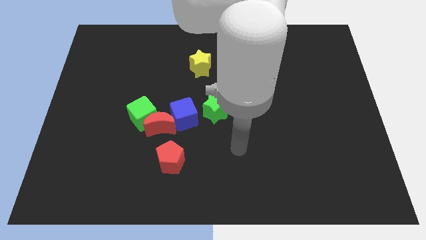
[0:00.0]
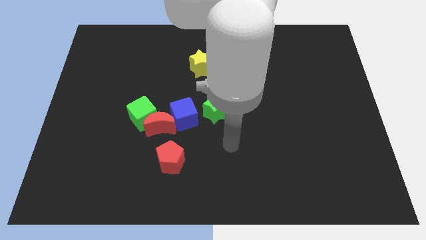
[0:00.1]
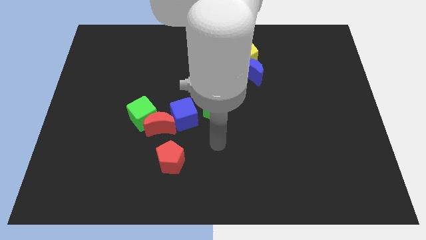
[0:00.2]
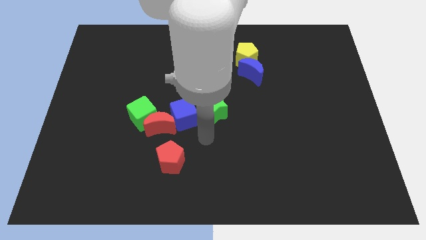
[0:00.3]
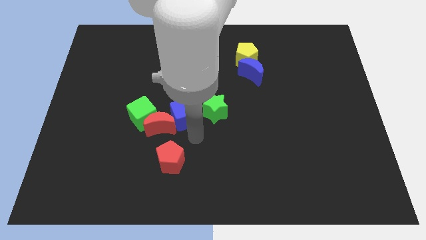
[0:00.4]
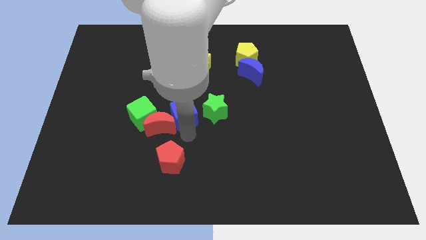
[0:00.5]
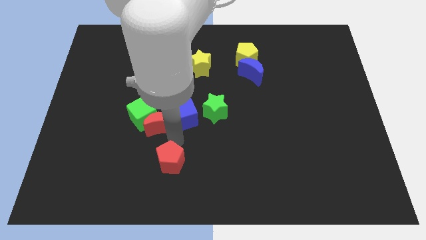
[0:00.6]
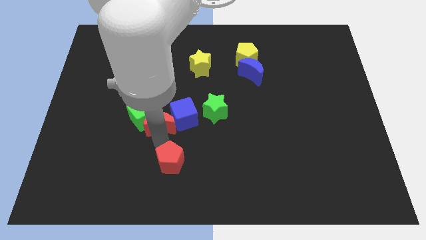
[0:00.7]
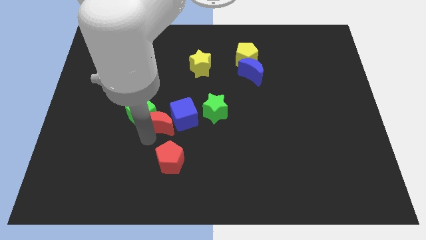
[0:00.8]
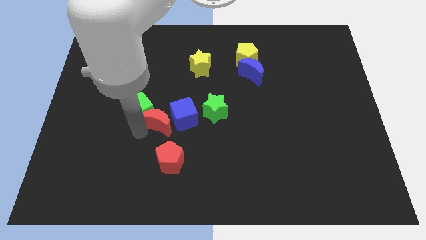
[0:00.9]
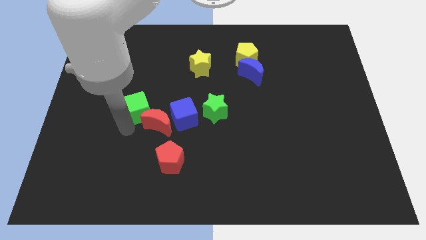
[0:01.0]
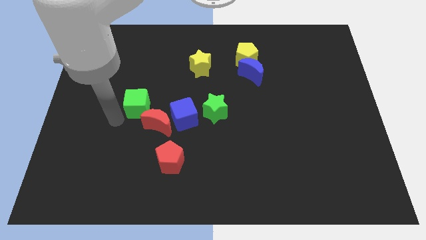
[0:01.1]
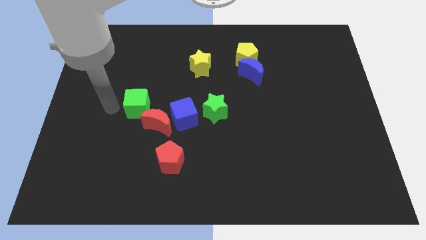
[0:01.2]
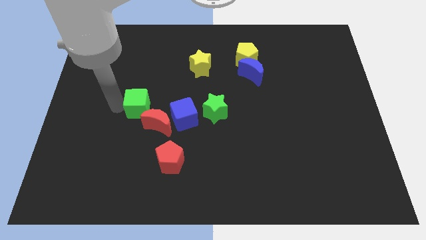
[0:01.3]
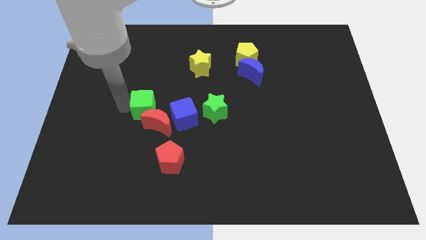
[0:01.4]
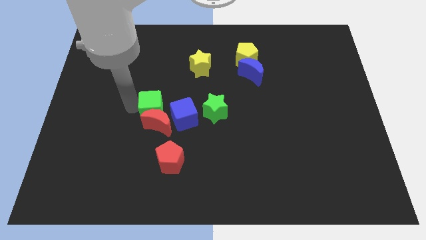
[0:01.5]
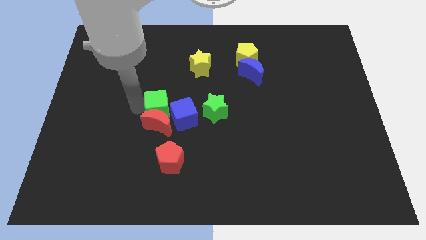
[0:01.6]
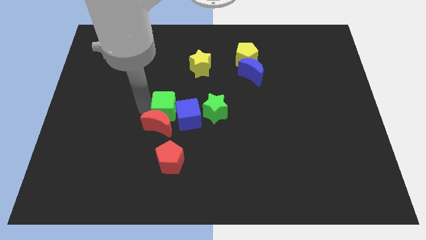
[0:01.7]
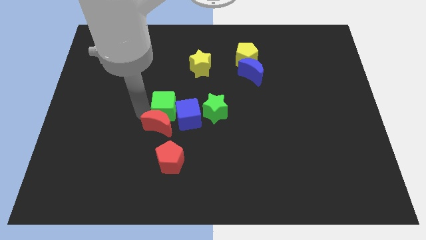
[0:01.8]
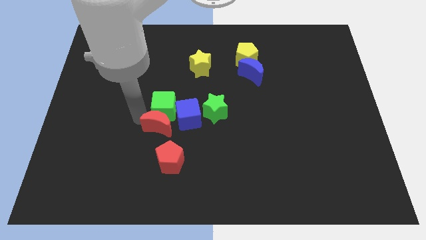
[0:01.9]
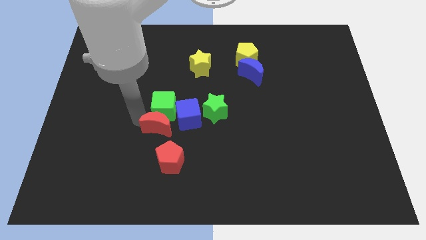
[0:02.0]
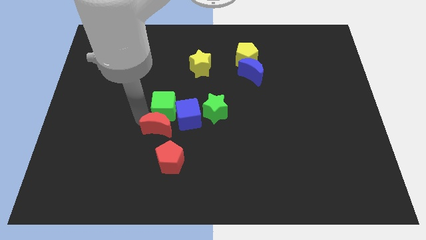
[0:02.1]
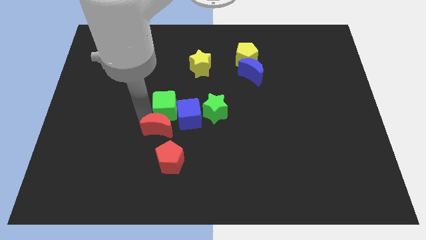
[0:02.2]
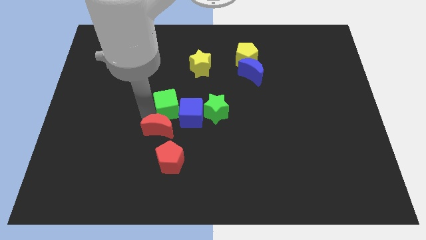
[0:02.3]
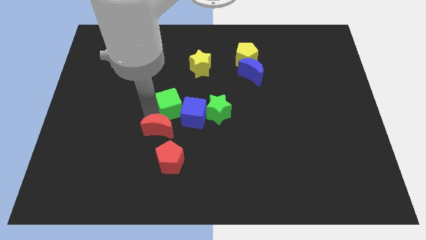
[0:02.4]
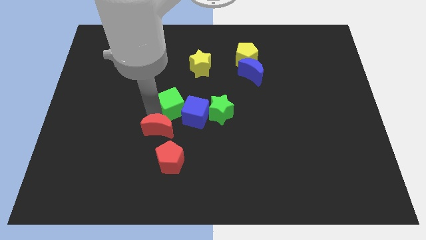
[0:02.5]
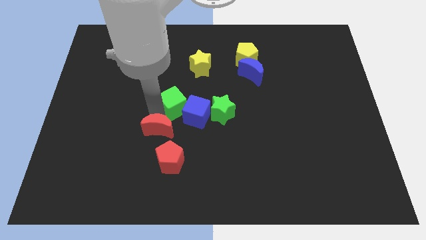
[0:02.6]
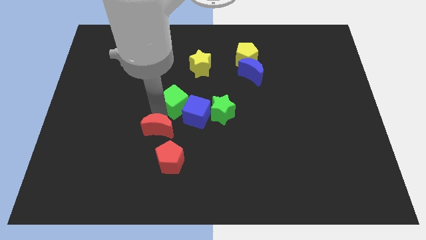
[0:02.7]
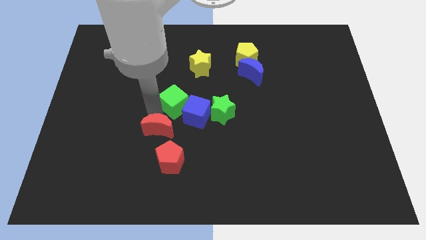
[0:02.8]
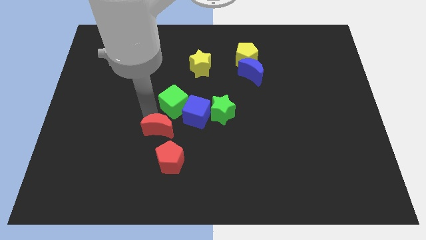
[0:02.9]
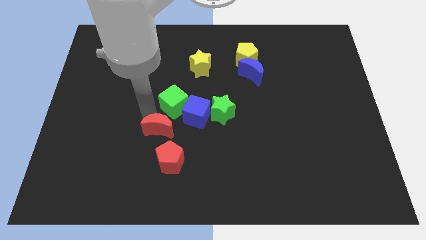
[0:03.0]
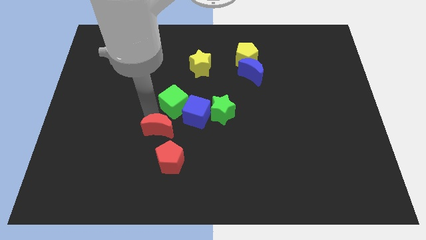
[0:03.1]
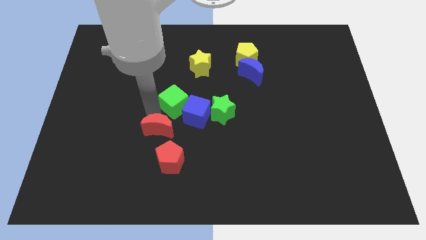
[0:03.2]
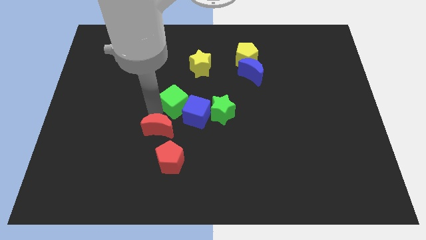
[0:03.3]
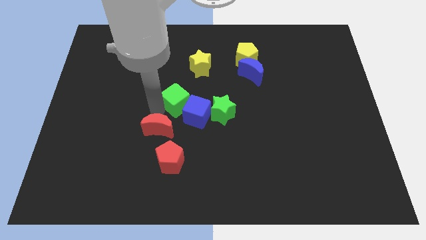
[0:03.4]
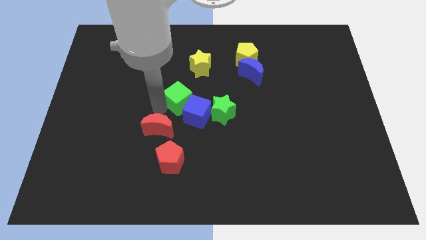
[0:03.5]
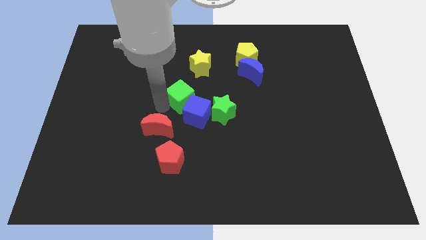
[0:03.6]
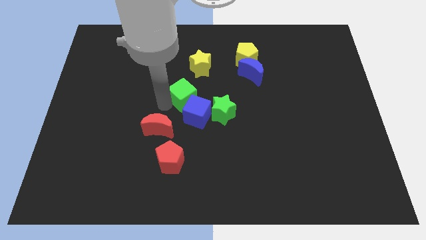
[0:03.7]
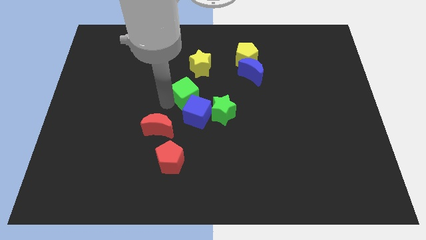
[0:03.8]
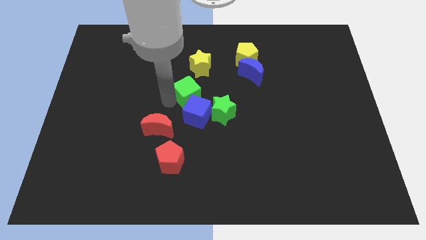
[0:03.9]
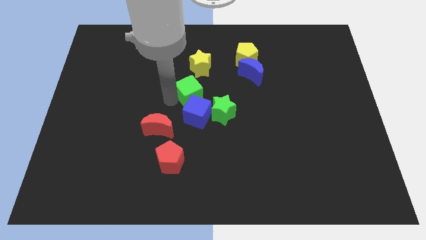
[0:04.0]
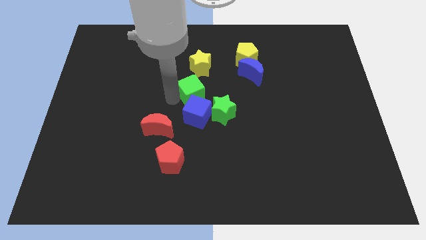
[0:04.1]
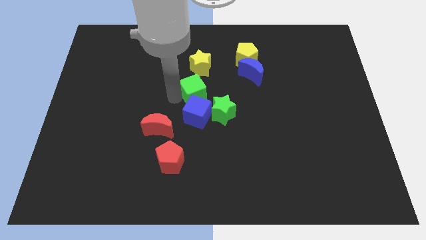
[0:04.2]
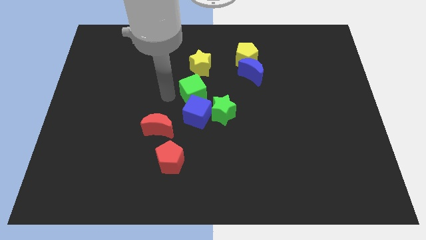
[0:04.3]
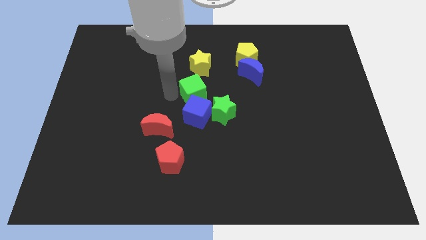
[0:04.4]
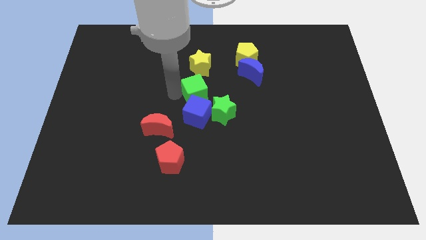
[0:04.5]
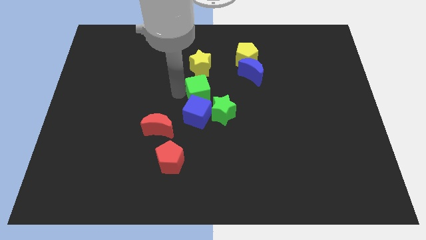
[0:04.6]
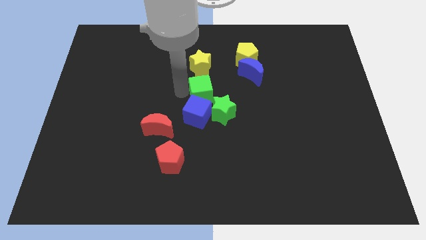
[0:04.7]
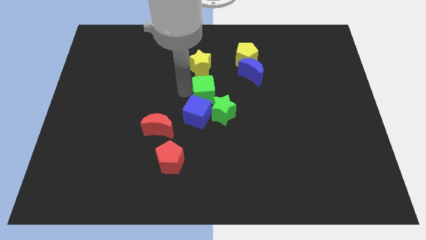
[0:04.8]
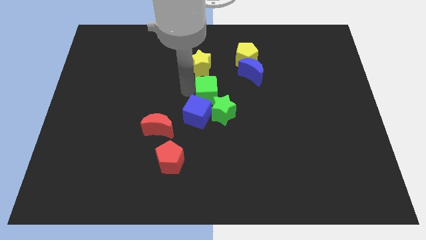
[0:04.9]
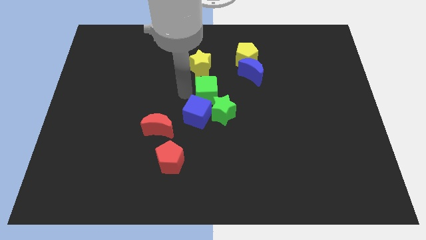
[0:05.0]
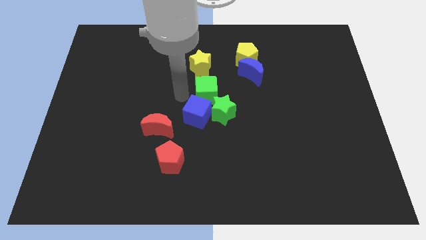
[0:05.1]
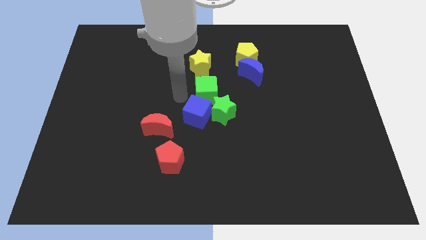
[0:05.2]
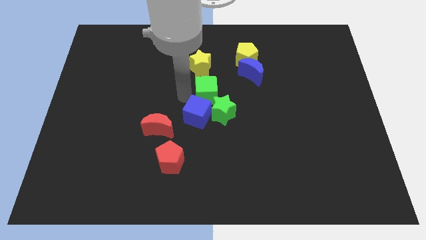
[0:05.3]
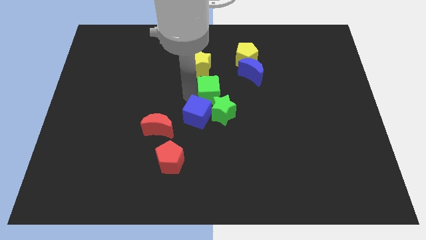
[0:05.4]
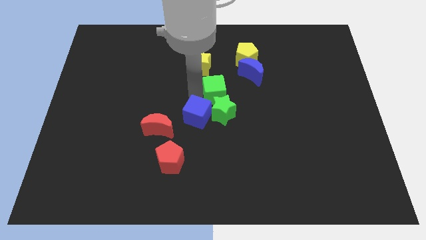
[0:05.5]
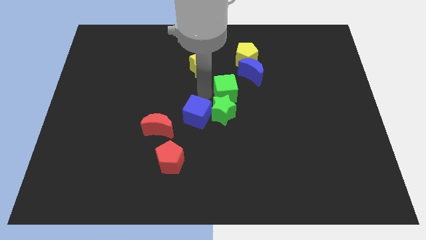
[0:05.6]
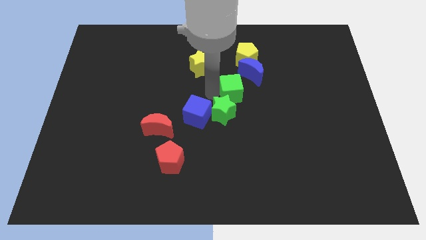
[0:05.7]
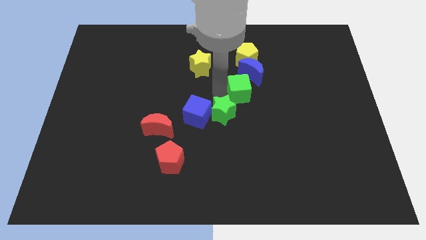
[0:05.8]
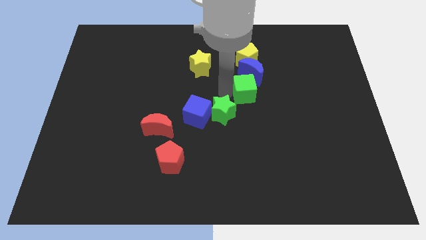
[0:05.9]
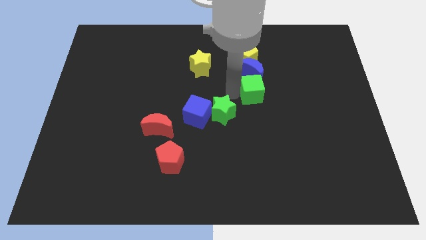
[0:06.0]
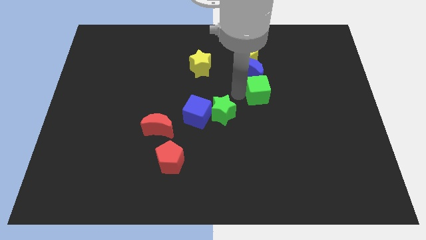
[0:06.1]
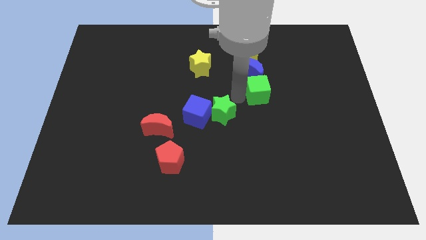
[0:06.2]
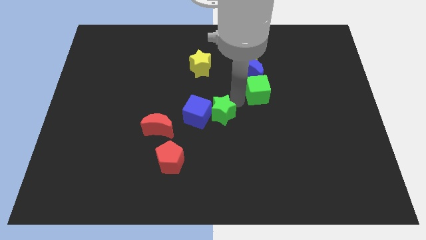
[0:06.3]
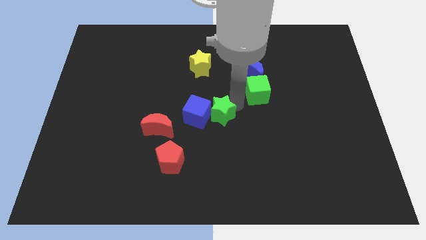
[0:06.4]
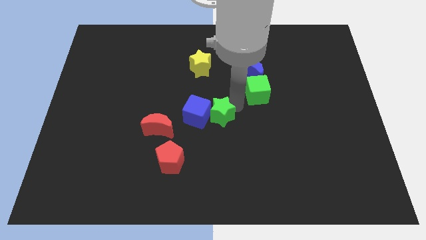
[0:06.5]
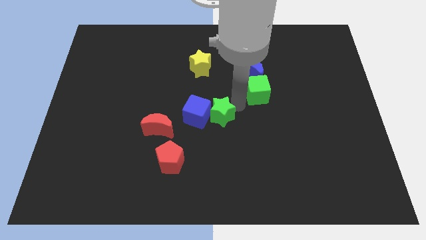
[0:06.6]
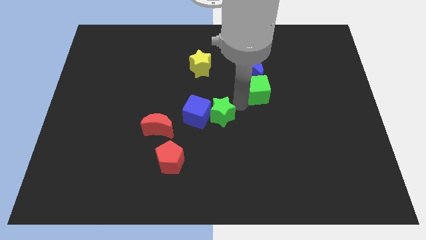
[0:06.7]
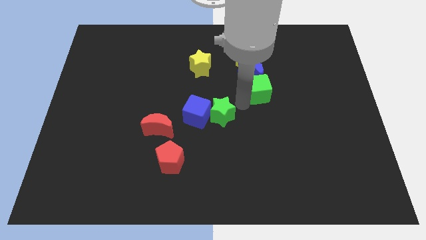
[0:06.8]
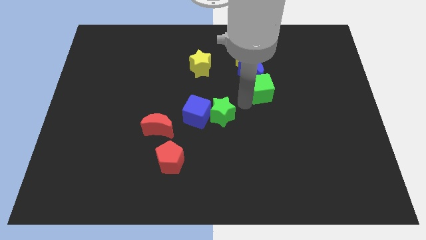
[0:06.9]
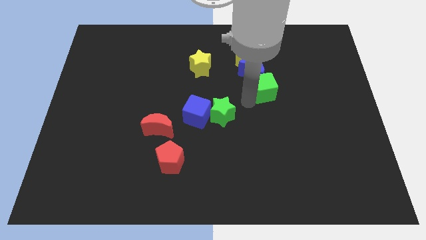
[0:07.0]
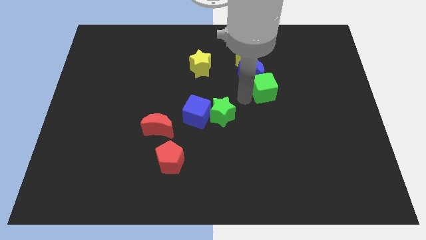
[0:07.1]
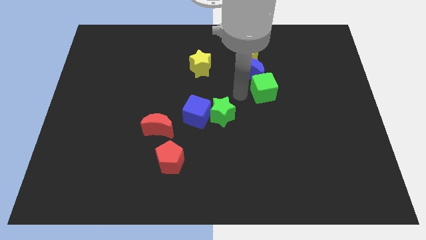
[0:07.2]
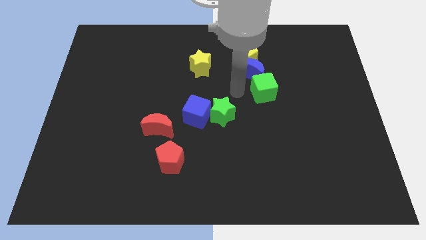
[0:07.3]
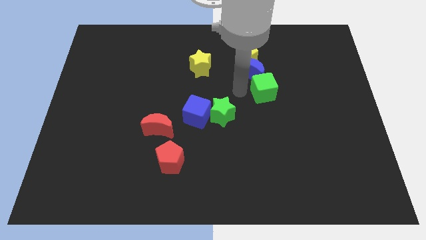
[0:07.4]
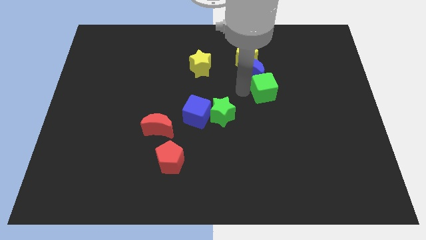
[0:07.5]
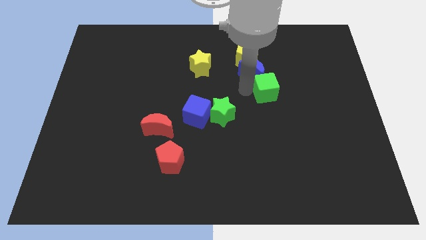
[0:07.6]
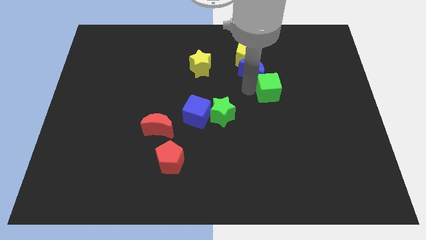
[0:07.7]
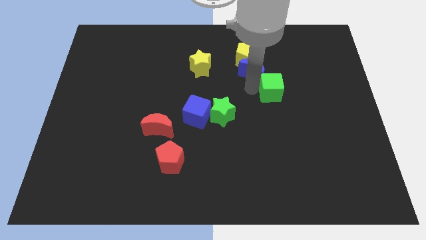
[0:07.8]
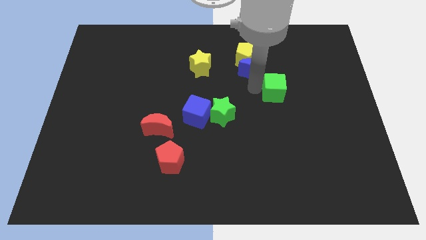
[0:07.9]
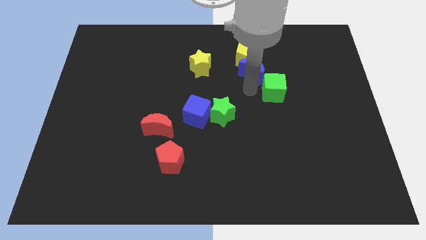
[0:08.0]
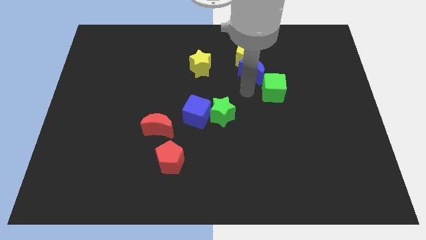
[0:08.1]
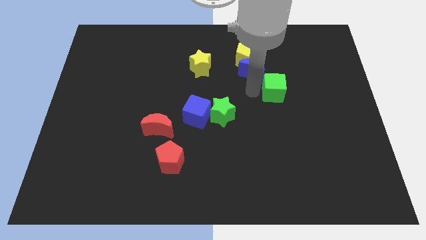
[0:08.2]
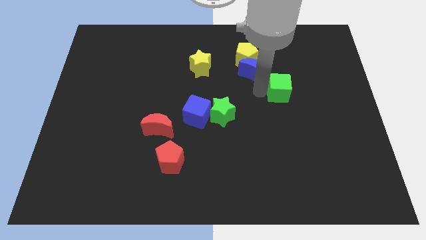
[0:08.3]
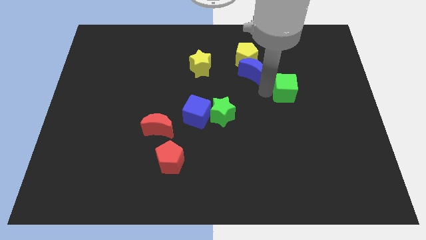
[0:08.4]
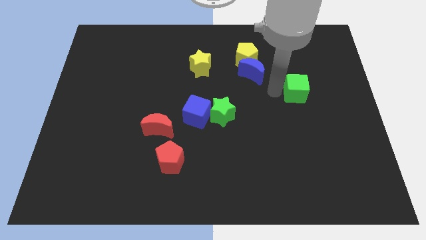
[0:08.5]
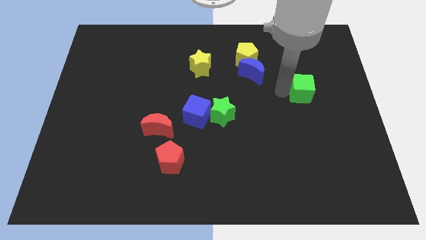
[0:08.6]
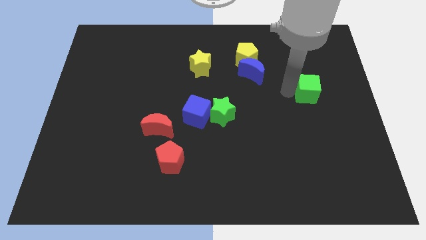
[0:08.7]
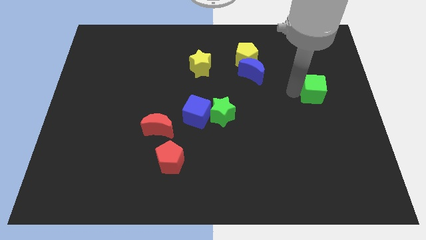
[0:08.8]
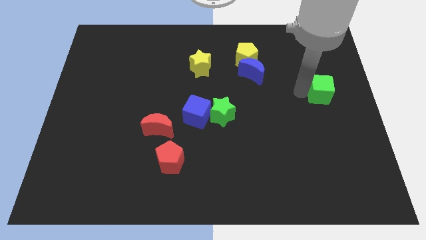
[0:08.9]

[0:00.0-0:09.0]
push the green cube to the center right
